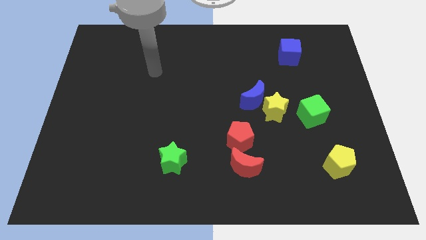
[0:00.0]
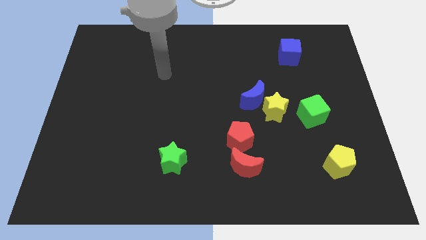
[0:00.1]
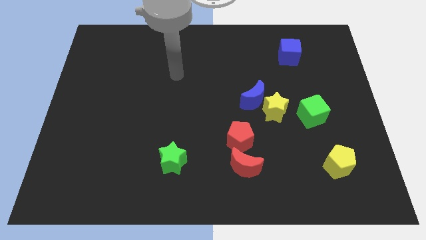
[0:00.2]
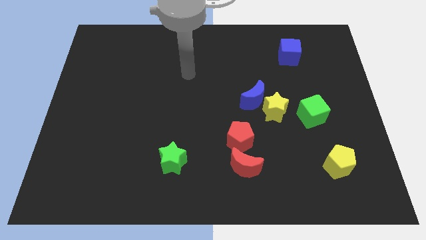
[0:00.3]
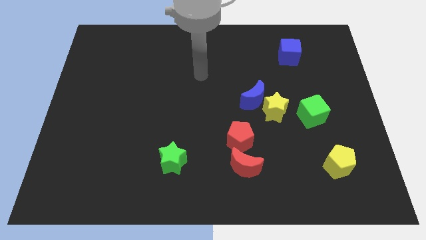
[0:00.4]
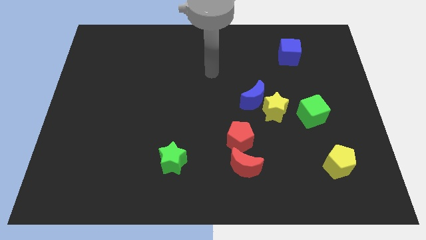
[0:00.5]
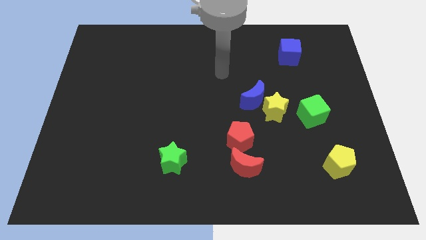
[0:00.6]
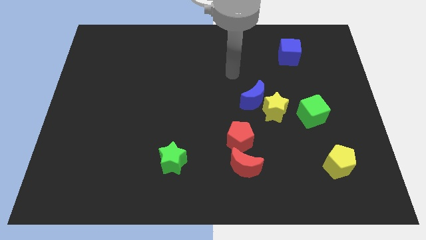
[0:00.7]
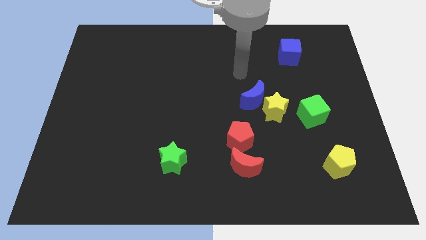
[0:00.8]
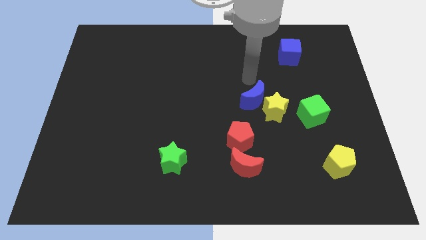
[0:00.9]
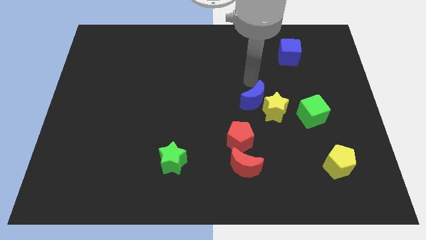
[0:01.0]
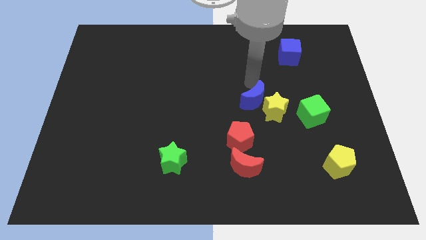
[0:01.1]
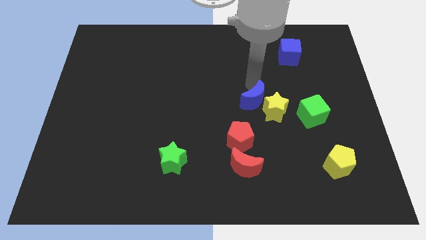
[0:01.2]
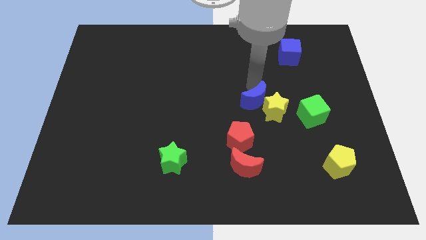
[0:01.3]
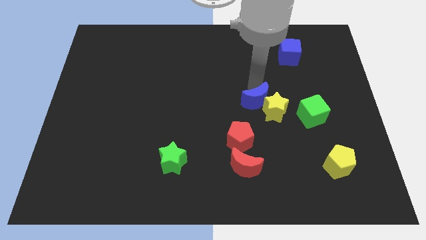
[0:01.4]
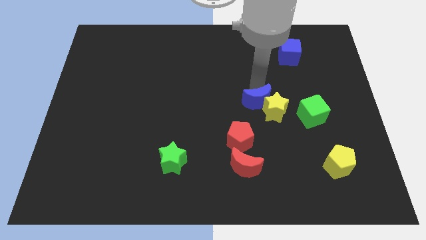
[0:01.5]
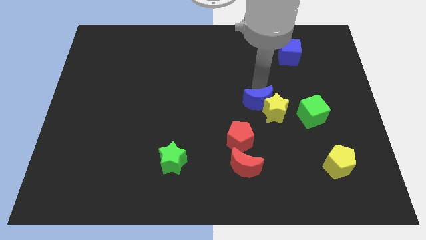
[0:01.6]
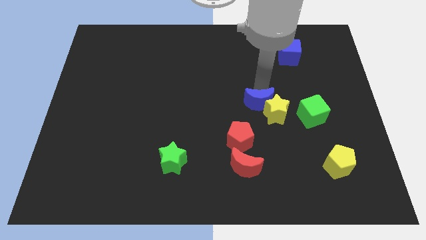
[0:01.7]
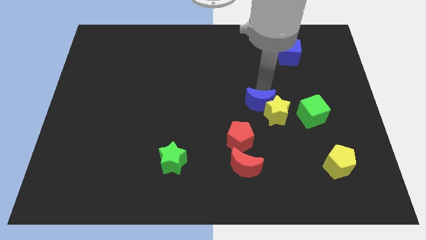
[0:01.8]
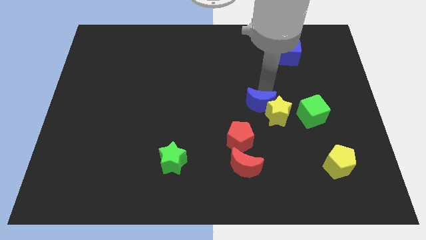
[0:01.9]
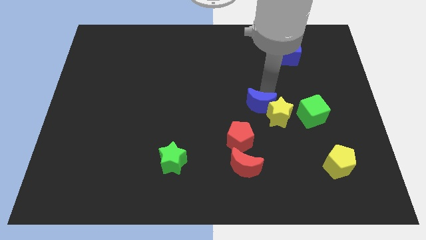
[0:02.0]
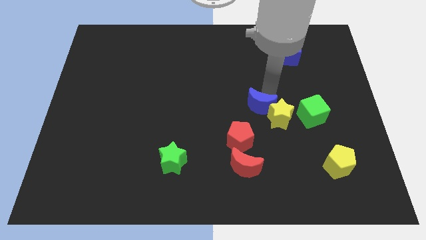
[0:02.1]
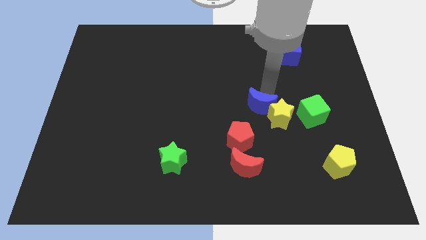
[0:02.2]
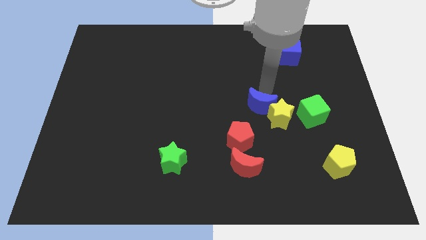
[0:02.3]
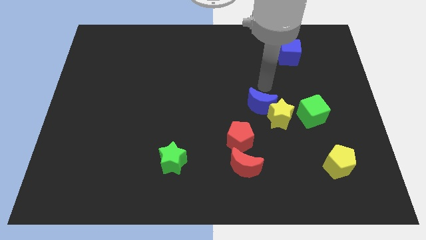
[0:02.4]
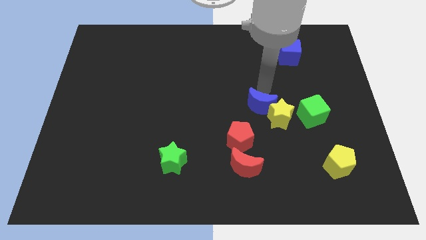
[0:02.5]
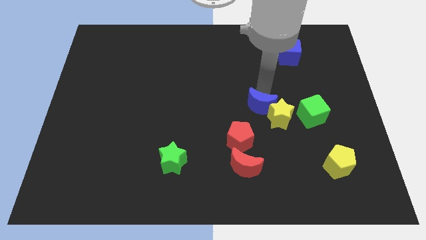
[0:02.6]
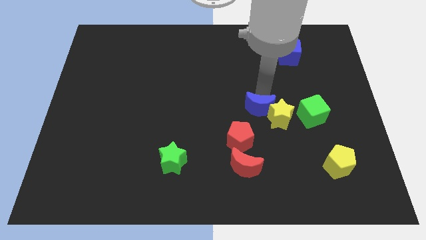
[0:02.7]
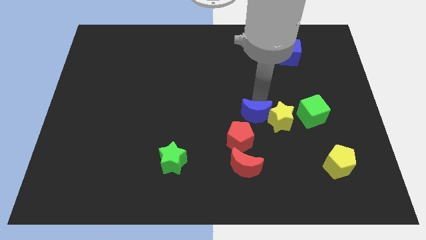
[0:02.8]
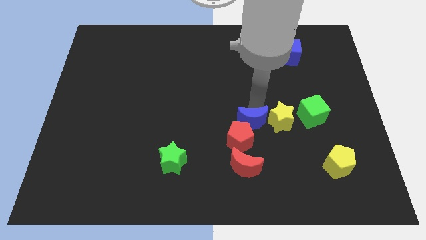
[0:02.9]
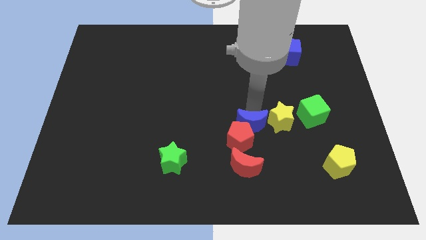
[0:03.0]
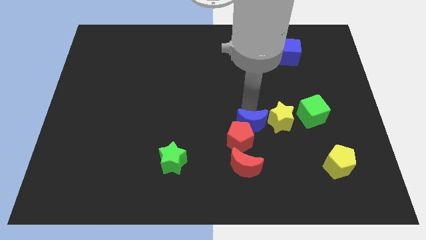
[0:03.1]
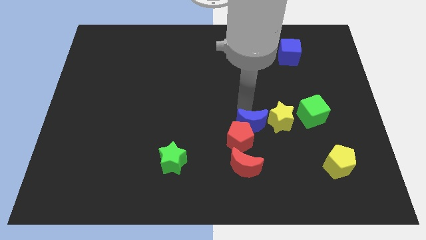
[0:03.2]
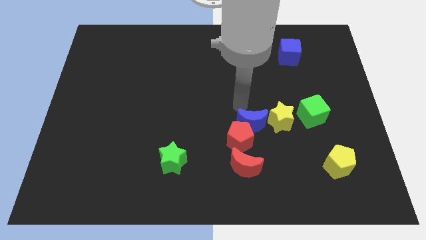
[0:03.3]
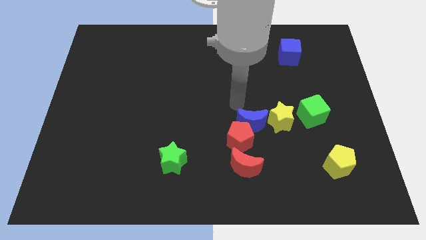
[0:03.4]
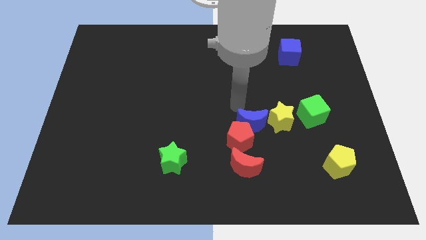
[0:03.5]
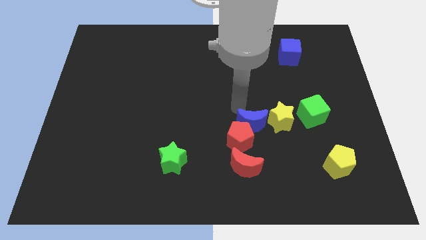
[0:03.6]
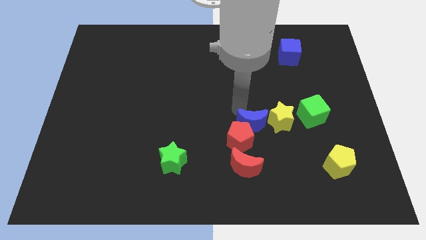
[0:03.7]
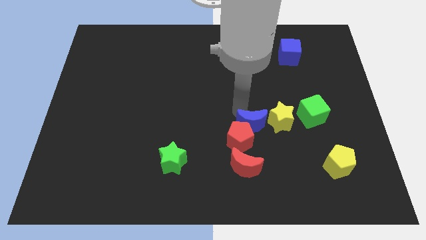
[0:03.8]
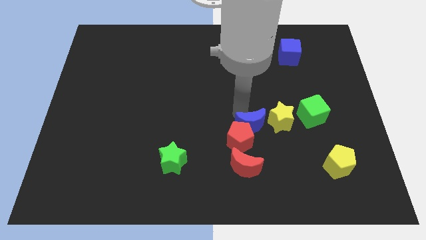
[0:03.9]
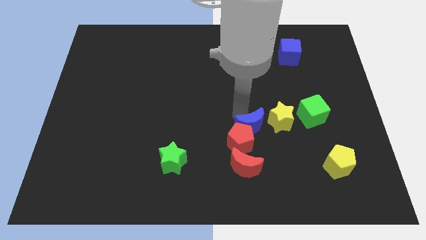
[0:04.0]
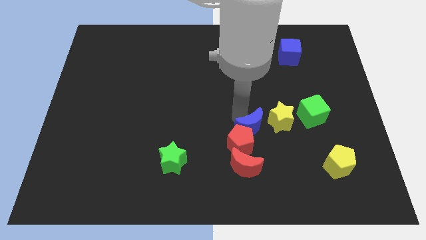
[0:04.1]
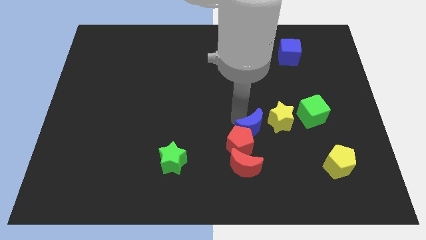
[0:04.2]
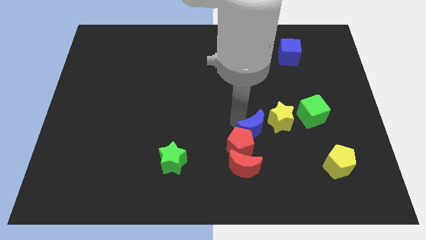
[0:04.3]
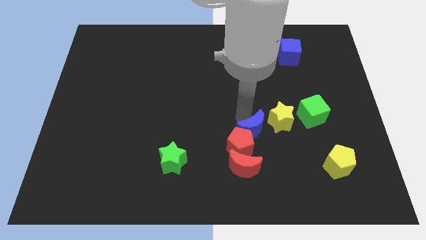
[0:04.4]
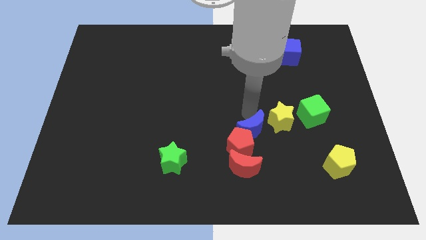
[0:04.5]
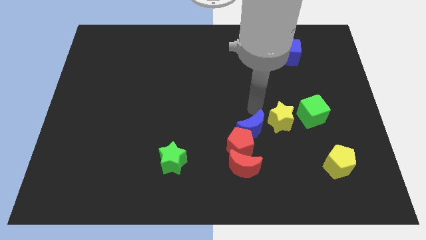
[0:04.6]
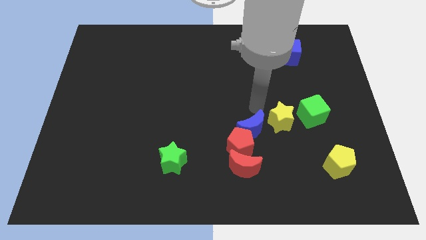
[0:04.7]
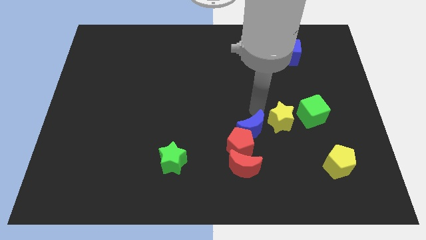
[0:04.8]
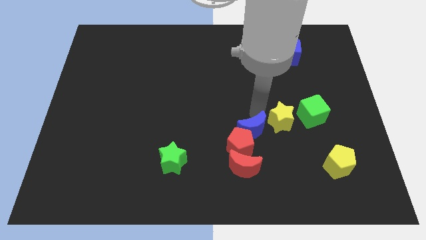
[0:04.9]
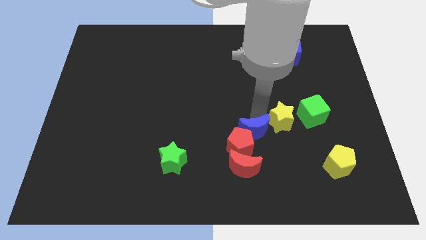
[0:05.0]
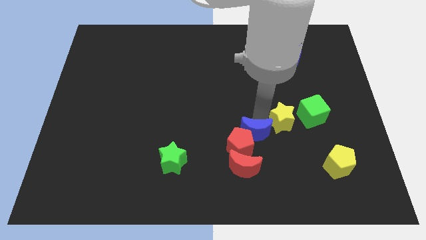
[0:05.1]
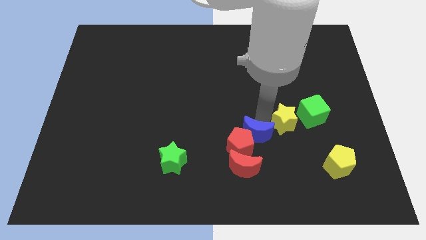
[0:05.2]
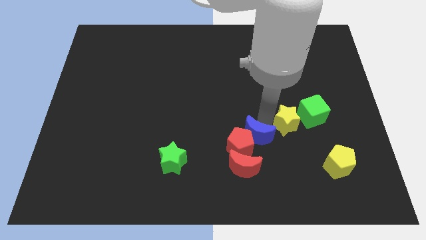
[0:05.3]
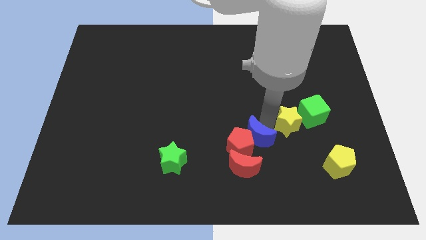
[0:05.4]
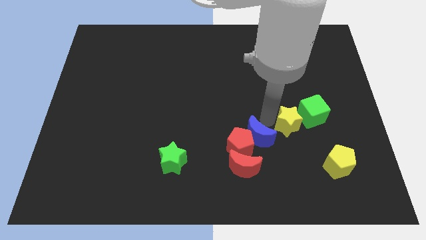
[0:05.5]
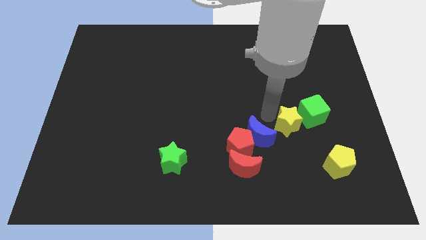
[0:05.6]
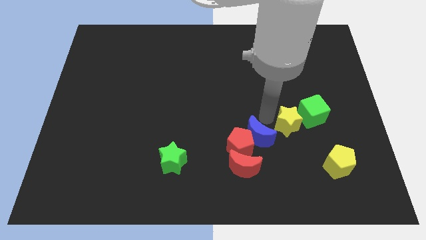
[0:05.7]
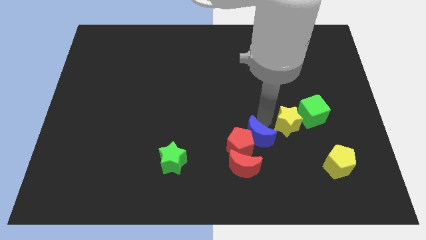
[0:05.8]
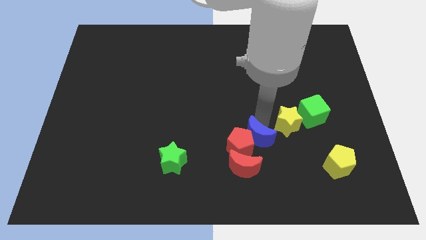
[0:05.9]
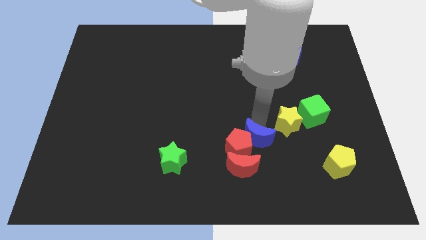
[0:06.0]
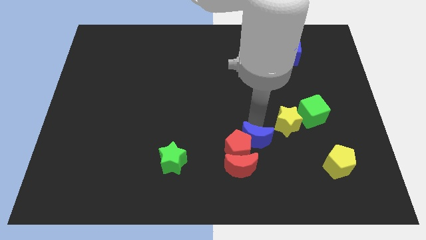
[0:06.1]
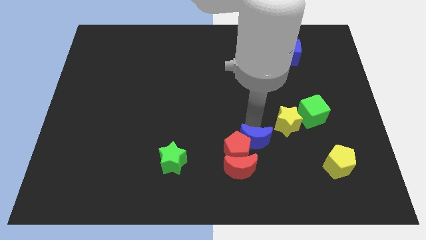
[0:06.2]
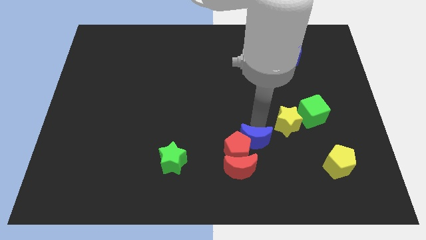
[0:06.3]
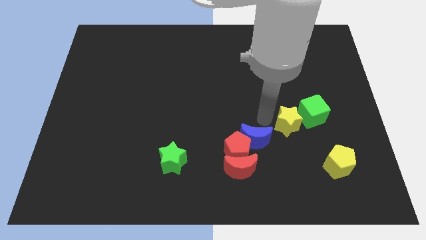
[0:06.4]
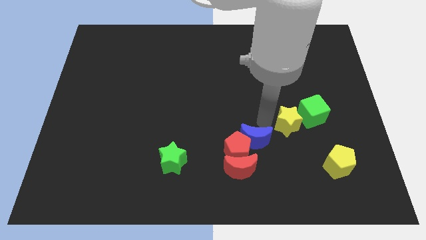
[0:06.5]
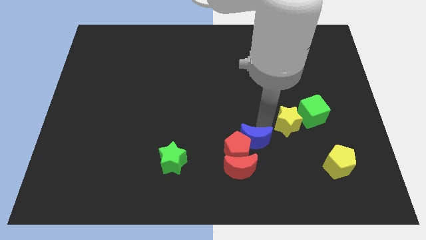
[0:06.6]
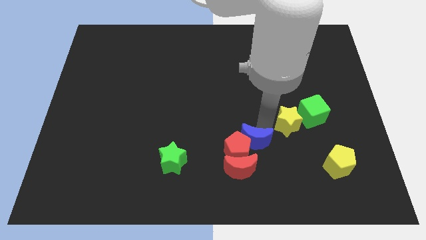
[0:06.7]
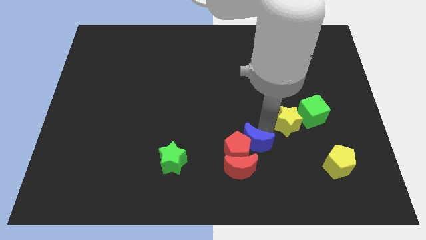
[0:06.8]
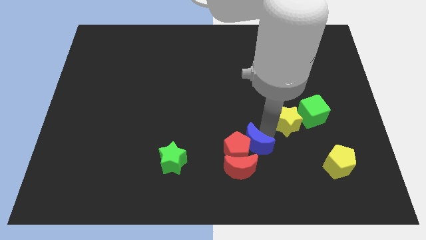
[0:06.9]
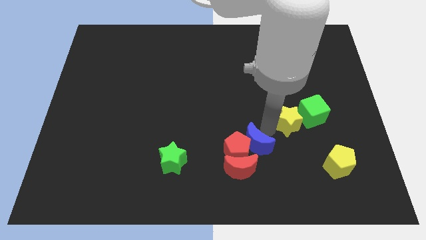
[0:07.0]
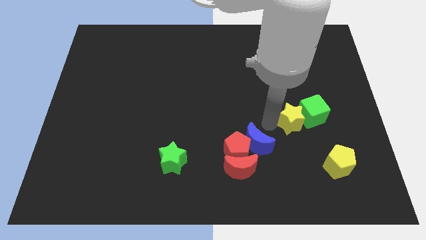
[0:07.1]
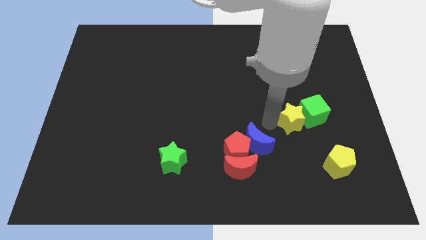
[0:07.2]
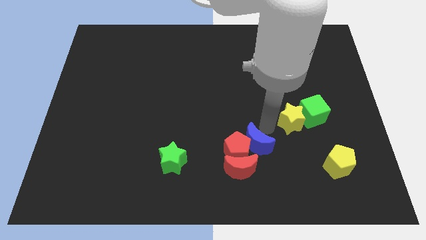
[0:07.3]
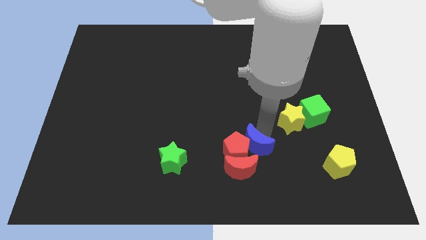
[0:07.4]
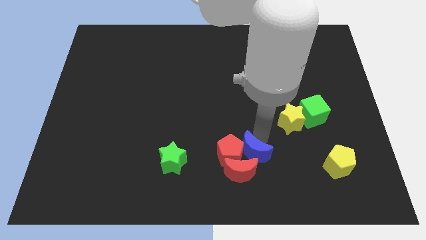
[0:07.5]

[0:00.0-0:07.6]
put the blue moon close to the red moon

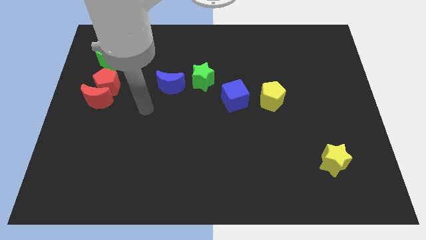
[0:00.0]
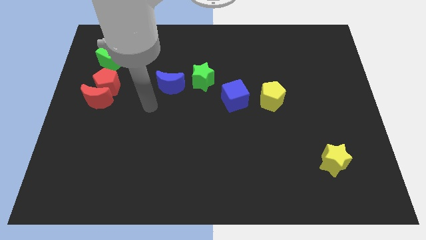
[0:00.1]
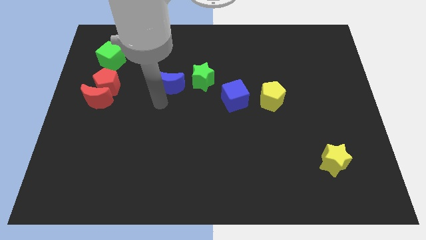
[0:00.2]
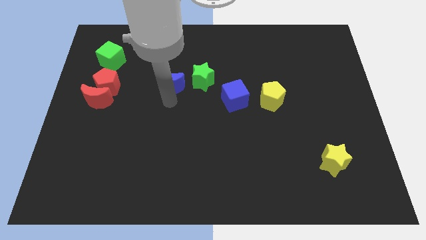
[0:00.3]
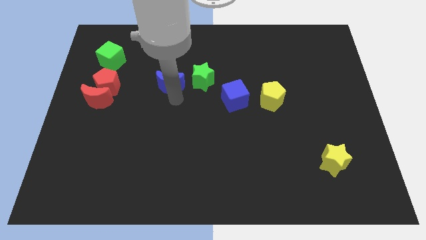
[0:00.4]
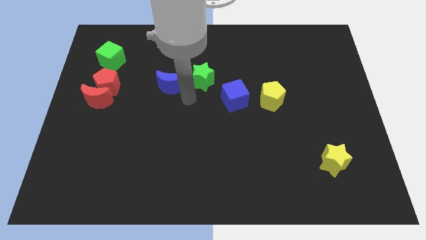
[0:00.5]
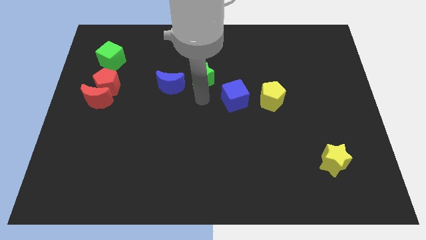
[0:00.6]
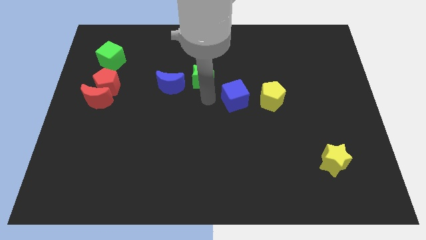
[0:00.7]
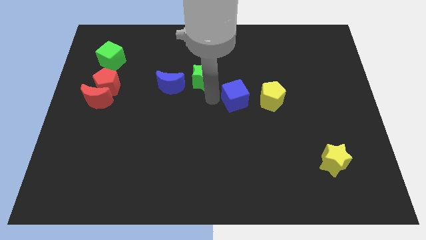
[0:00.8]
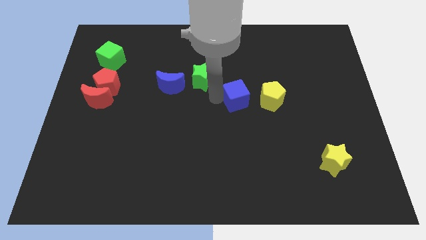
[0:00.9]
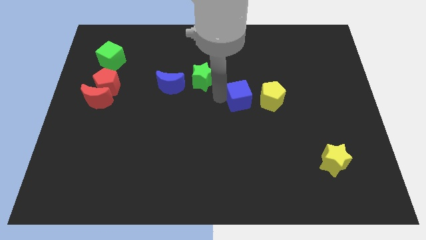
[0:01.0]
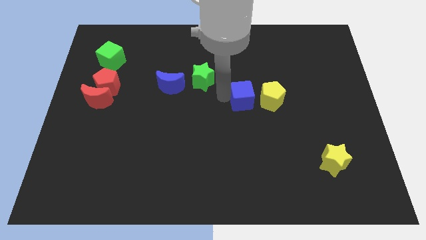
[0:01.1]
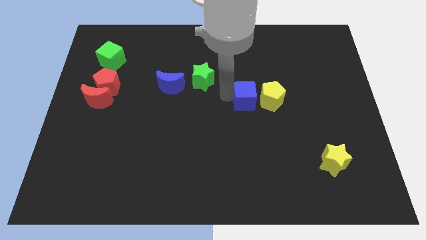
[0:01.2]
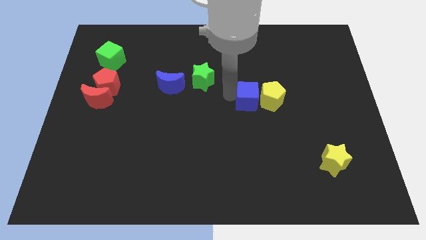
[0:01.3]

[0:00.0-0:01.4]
slide the blue cube close to the yellow pentagon
